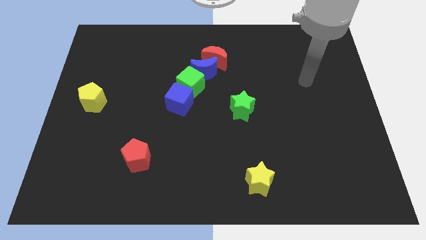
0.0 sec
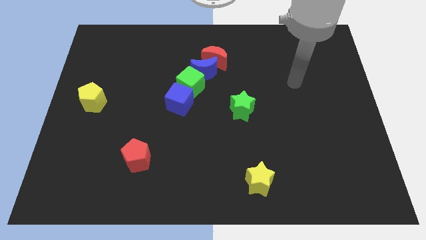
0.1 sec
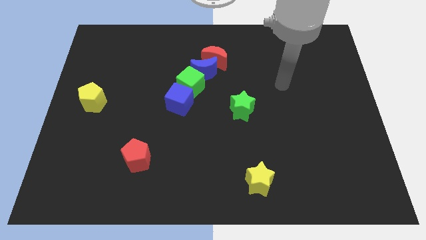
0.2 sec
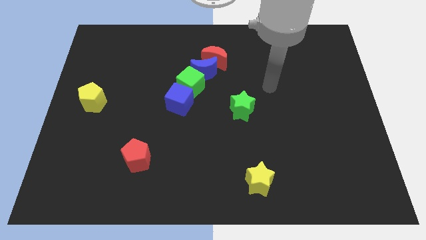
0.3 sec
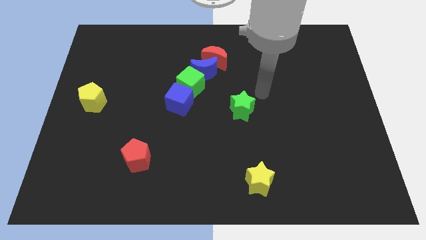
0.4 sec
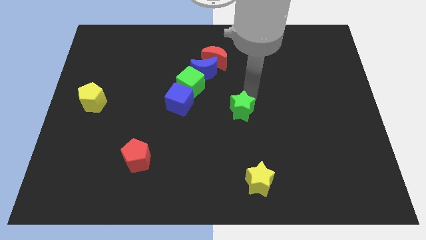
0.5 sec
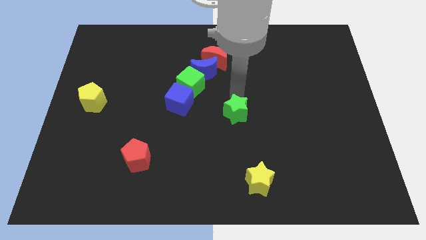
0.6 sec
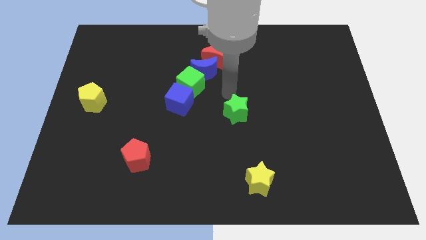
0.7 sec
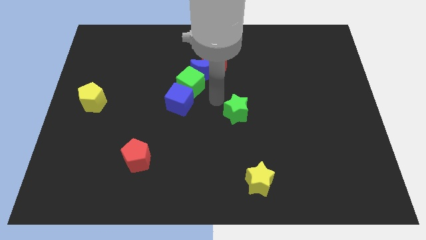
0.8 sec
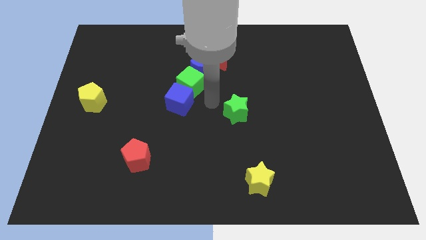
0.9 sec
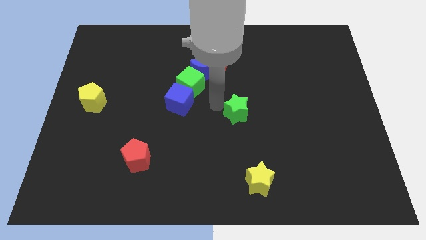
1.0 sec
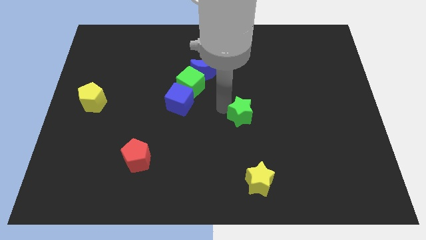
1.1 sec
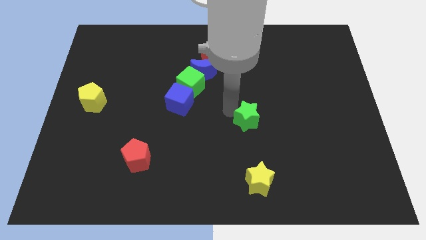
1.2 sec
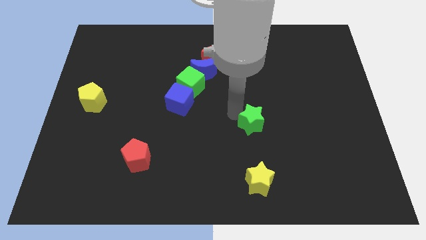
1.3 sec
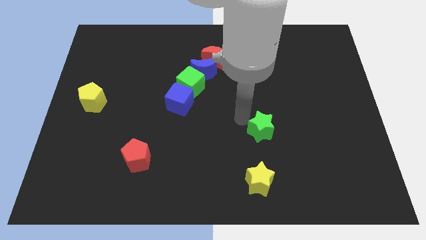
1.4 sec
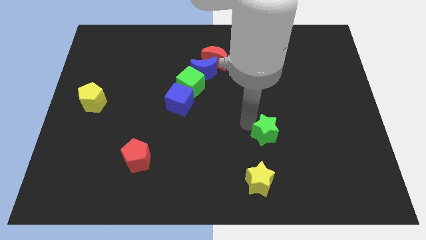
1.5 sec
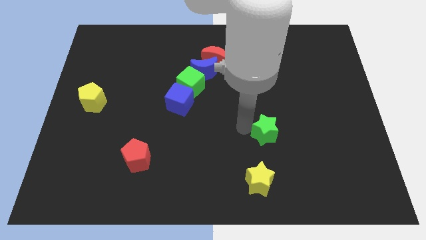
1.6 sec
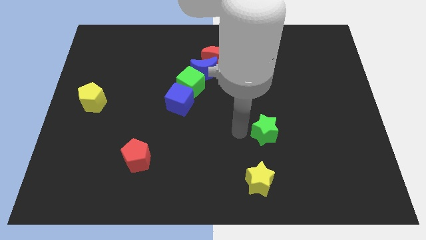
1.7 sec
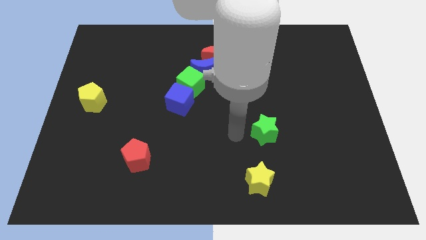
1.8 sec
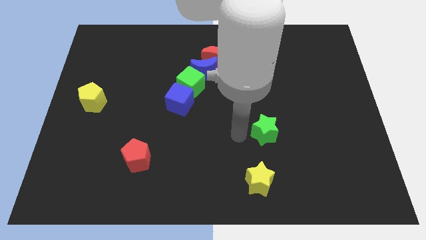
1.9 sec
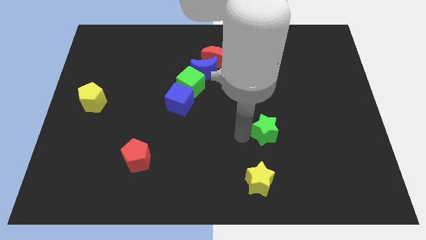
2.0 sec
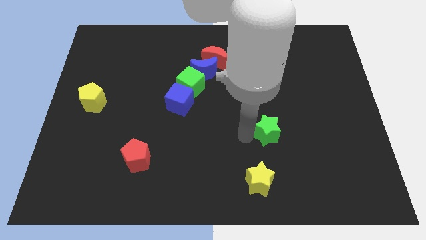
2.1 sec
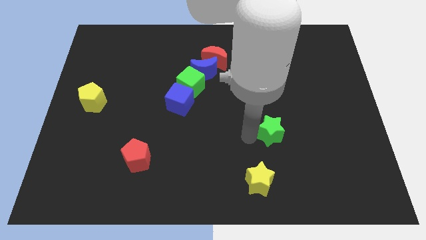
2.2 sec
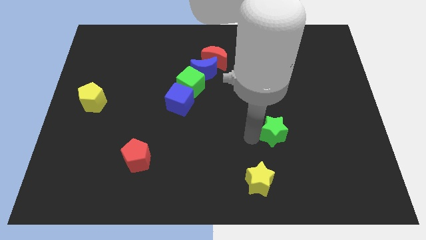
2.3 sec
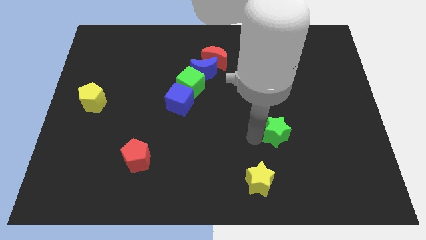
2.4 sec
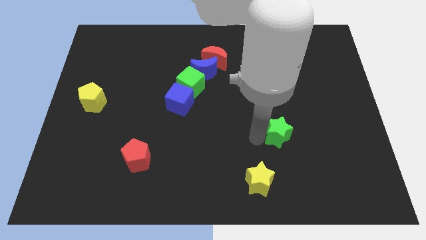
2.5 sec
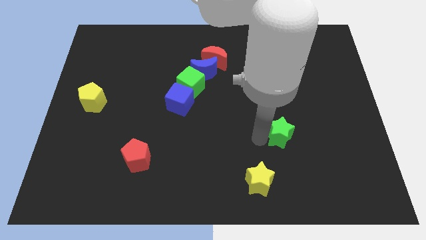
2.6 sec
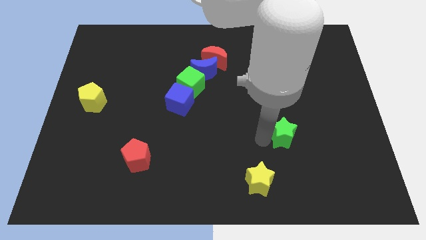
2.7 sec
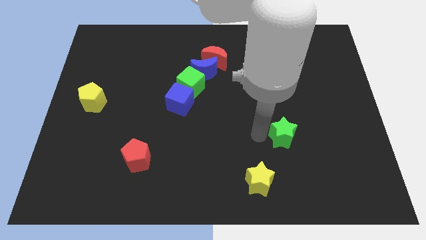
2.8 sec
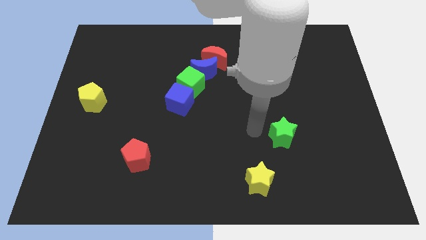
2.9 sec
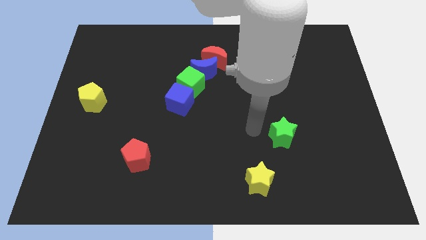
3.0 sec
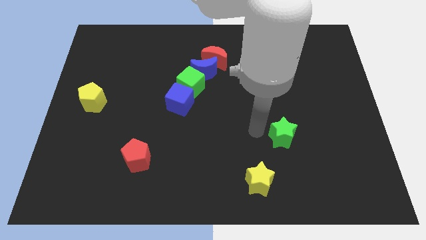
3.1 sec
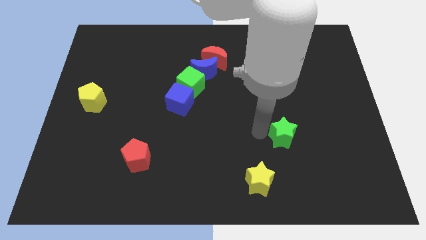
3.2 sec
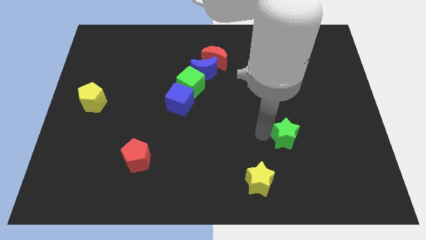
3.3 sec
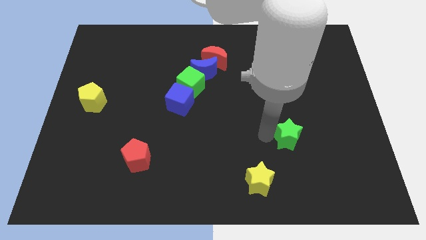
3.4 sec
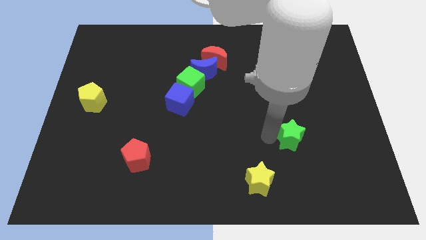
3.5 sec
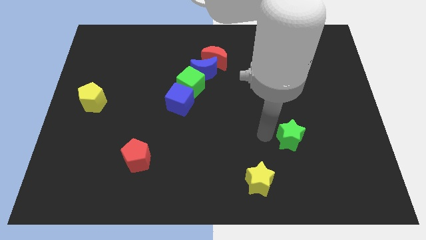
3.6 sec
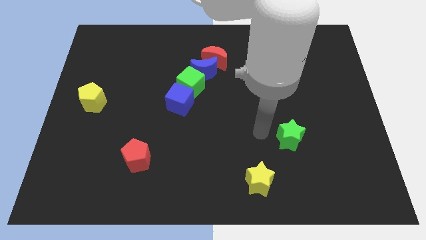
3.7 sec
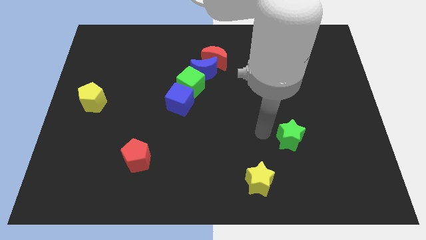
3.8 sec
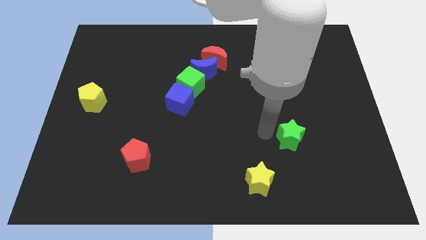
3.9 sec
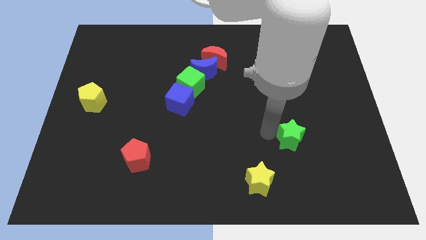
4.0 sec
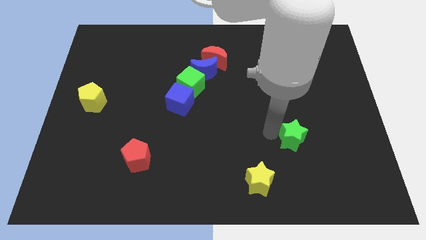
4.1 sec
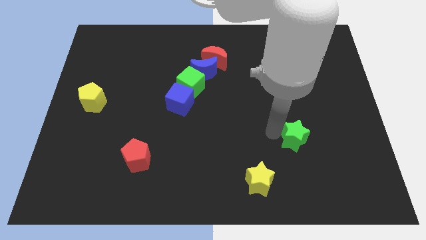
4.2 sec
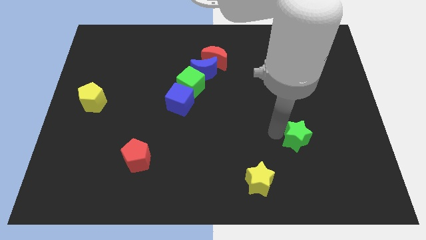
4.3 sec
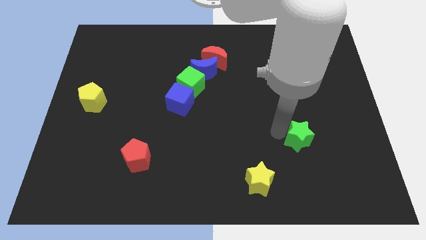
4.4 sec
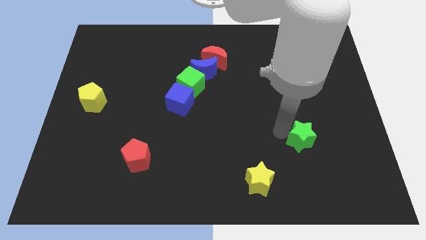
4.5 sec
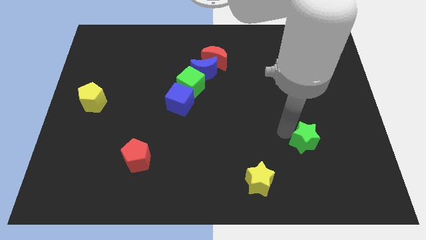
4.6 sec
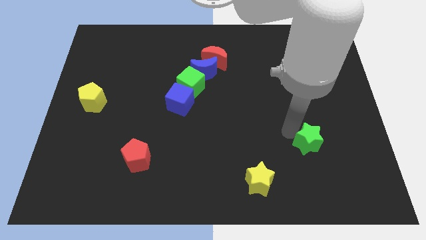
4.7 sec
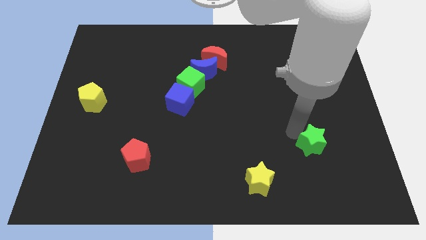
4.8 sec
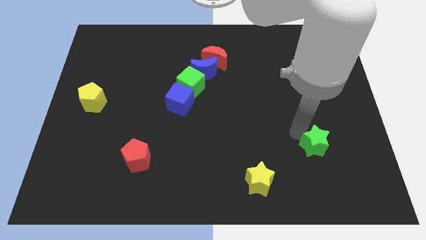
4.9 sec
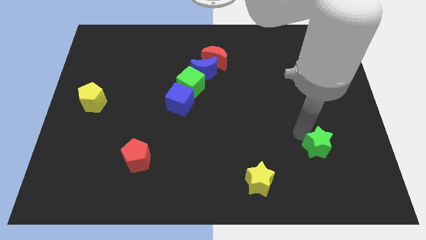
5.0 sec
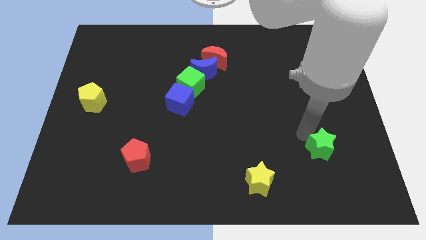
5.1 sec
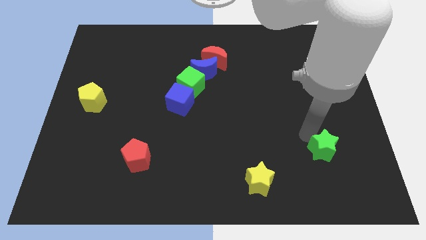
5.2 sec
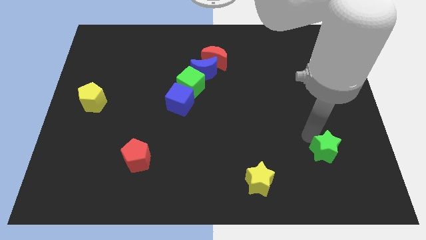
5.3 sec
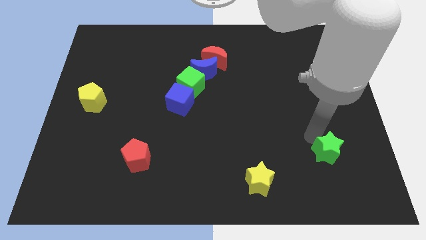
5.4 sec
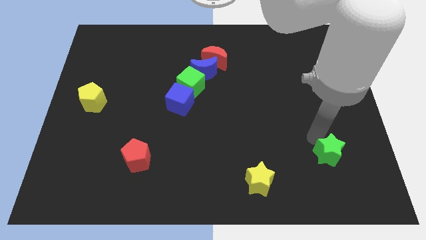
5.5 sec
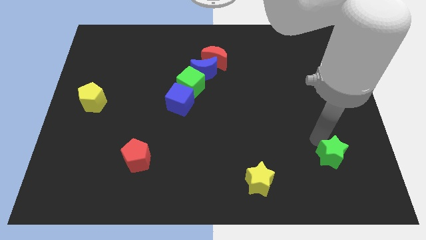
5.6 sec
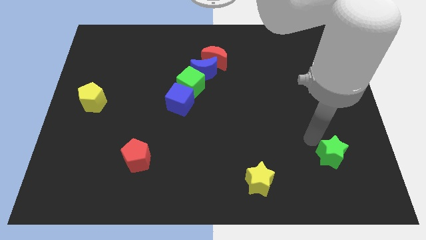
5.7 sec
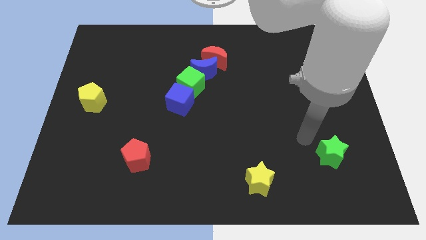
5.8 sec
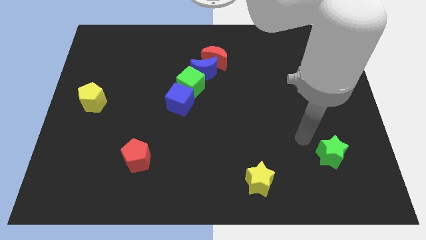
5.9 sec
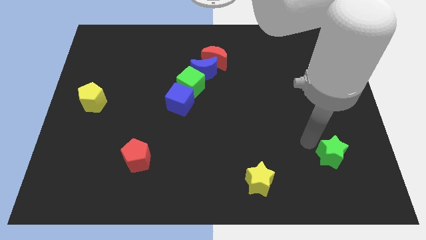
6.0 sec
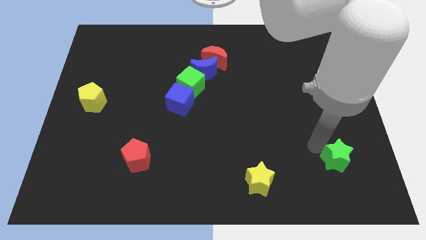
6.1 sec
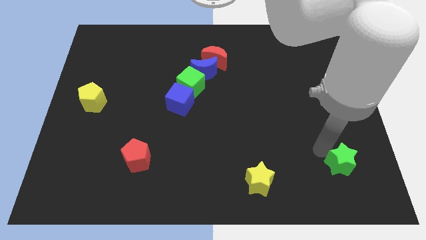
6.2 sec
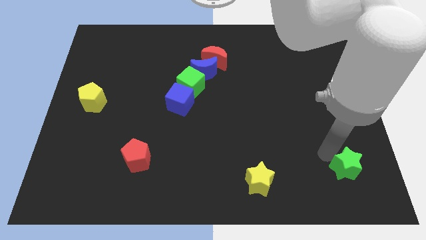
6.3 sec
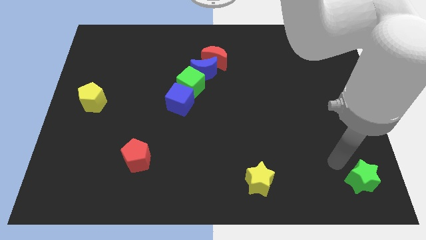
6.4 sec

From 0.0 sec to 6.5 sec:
push the green star to the bottom right
